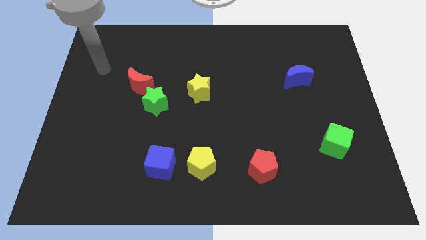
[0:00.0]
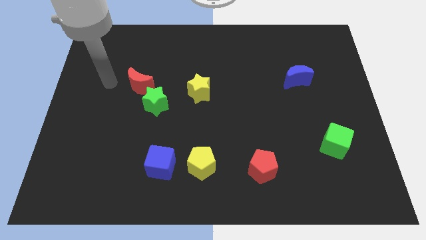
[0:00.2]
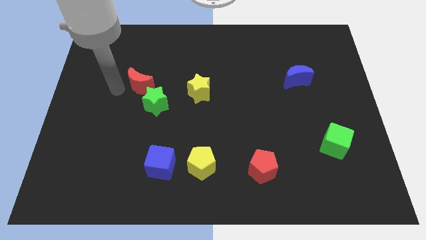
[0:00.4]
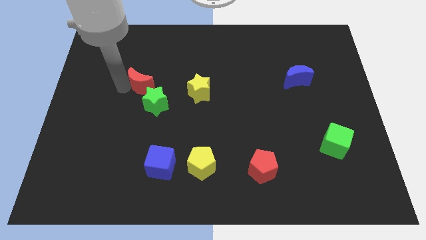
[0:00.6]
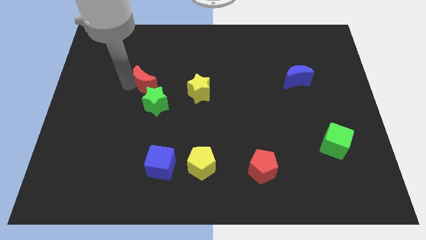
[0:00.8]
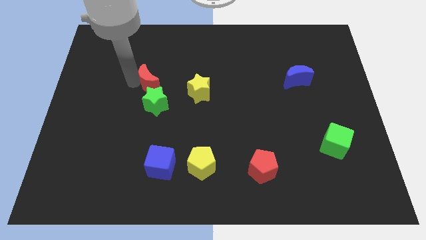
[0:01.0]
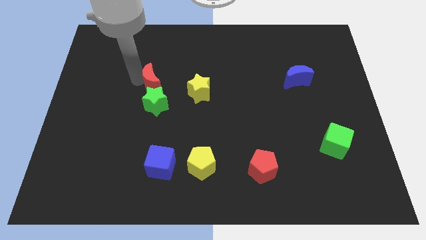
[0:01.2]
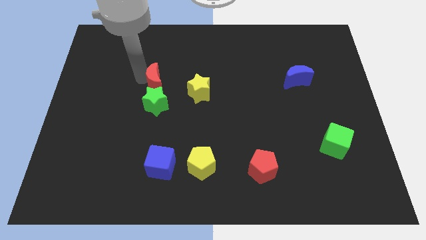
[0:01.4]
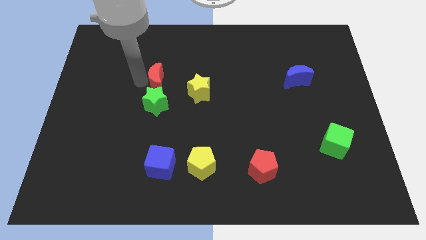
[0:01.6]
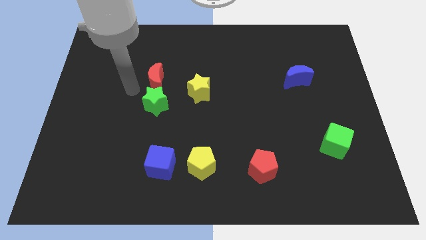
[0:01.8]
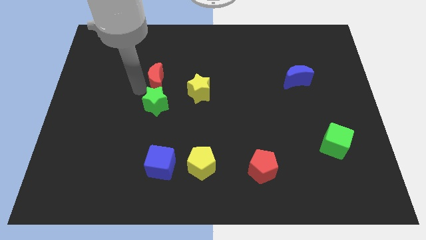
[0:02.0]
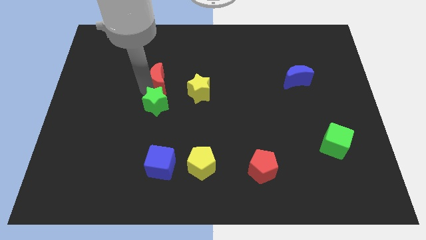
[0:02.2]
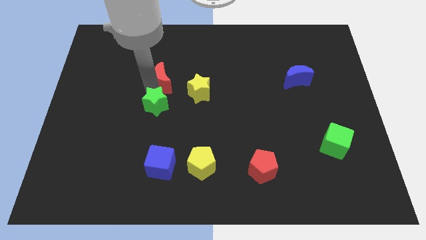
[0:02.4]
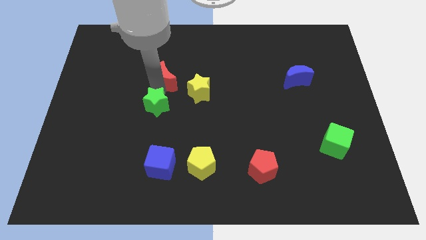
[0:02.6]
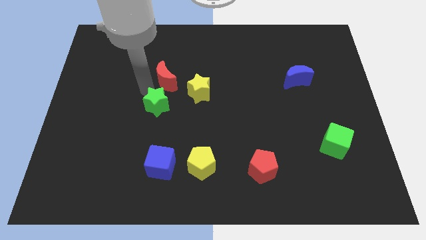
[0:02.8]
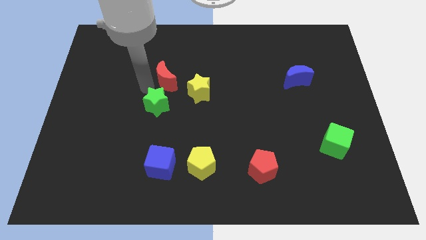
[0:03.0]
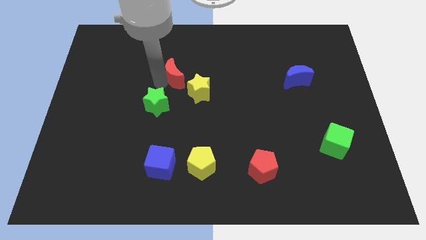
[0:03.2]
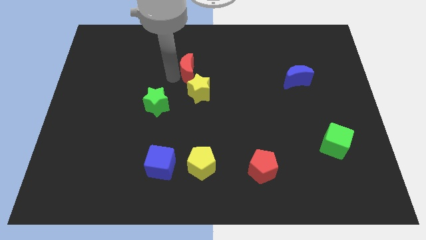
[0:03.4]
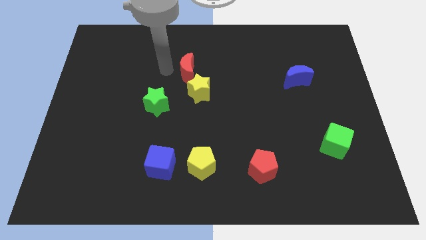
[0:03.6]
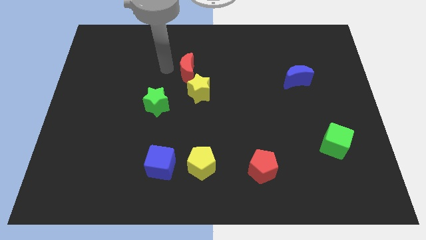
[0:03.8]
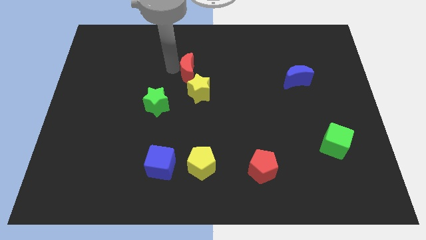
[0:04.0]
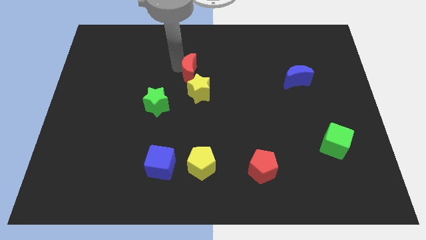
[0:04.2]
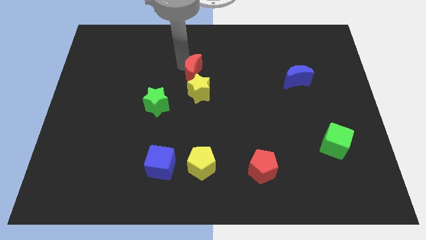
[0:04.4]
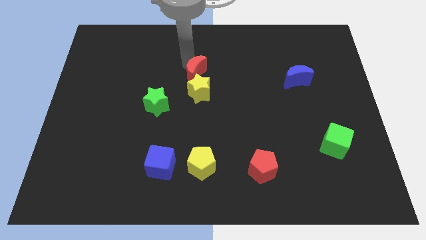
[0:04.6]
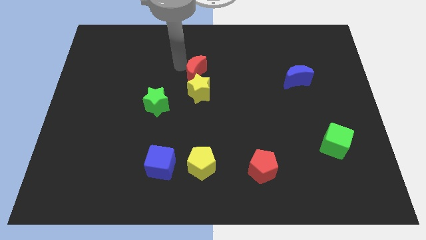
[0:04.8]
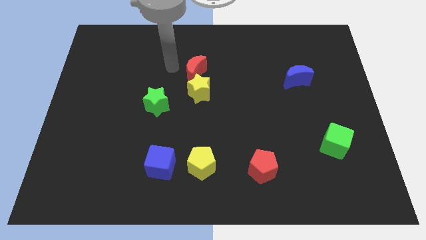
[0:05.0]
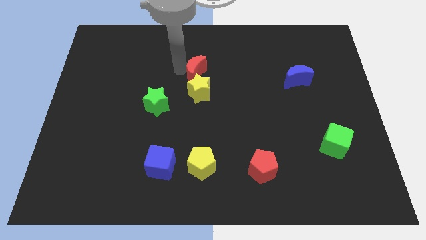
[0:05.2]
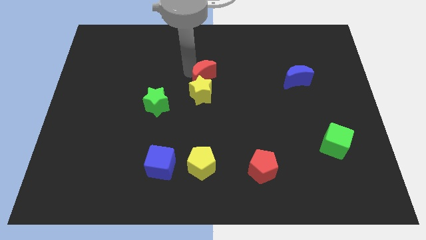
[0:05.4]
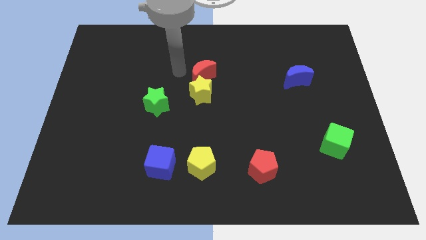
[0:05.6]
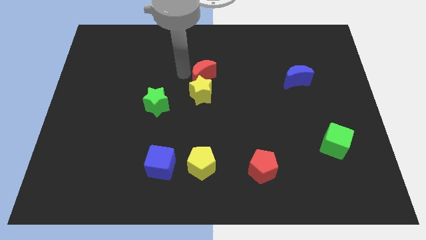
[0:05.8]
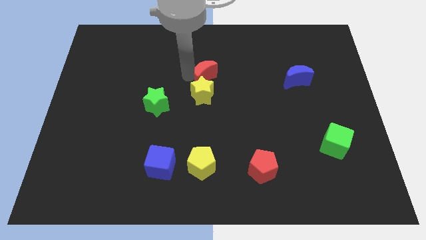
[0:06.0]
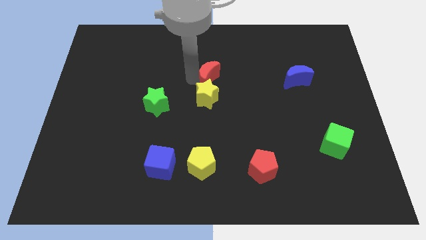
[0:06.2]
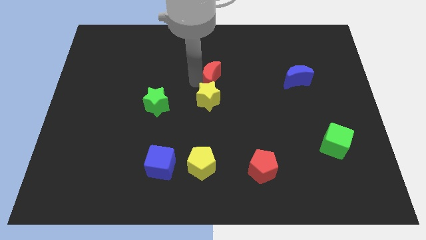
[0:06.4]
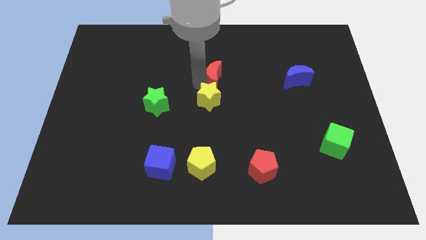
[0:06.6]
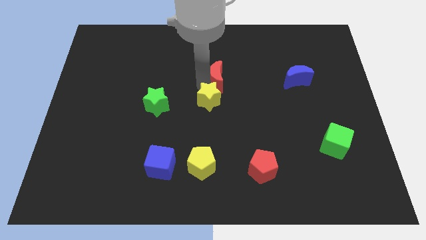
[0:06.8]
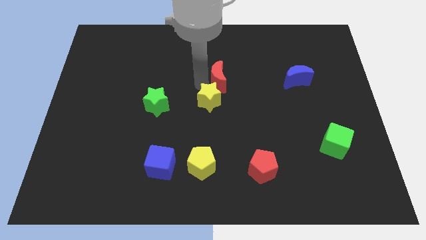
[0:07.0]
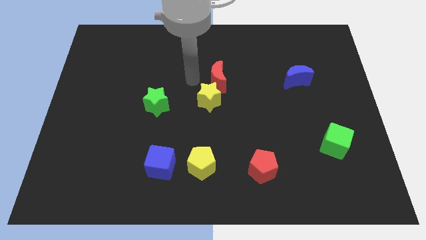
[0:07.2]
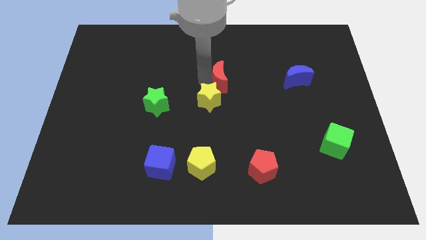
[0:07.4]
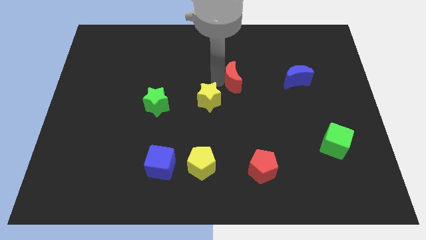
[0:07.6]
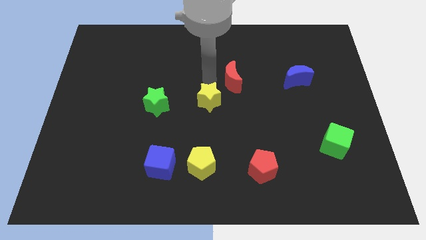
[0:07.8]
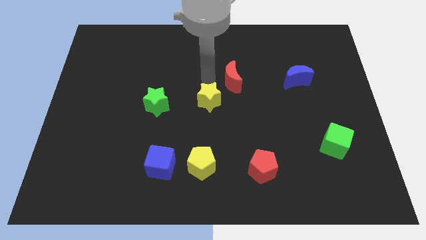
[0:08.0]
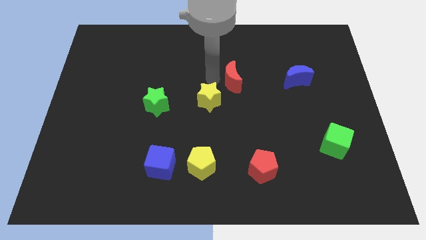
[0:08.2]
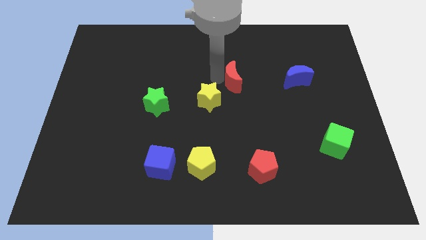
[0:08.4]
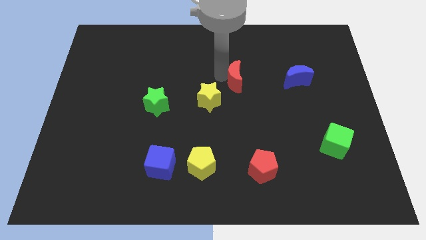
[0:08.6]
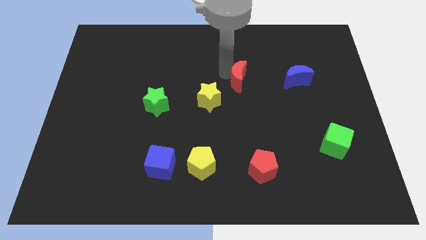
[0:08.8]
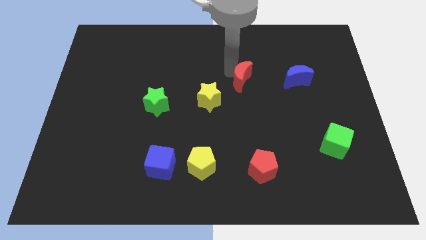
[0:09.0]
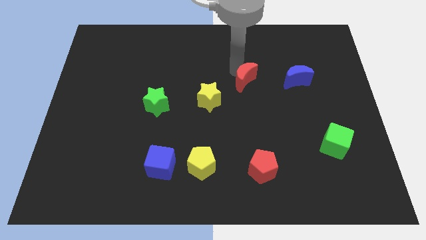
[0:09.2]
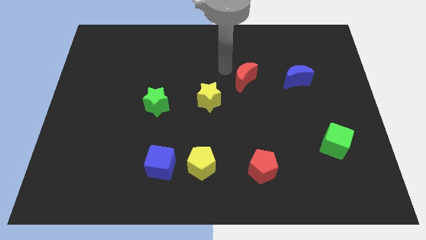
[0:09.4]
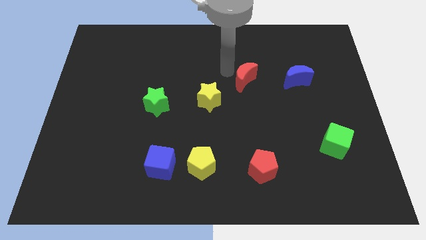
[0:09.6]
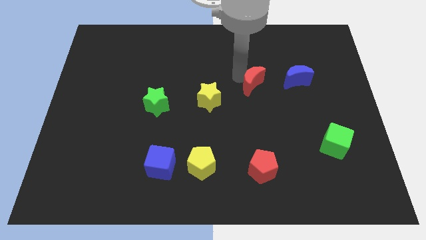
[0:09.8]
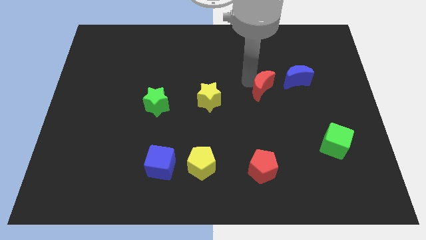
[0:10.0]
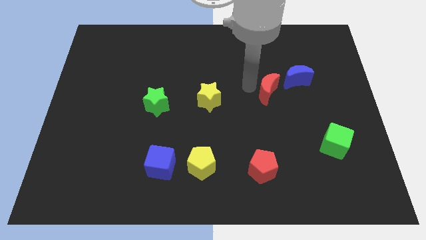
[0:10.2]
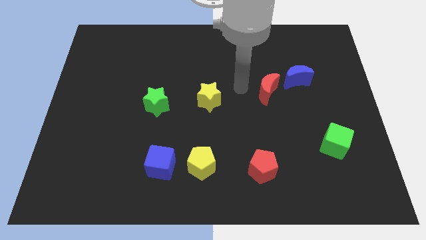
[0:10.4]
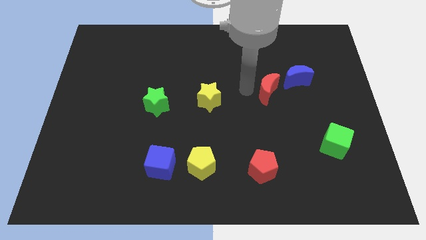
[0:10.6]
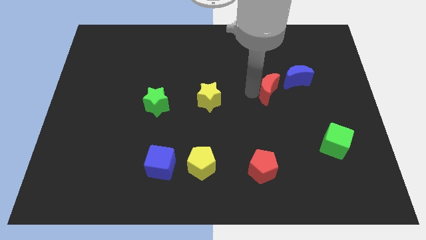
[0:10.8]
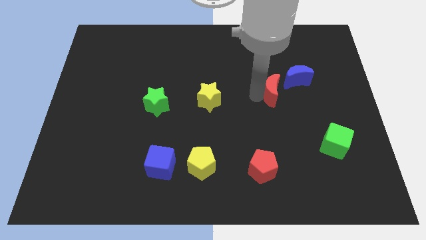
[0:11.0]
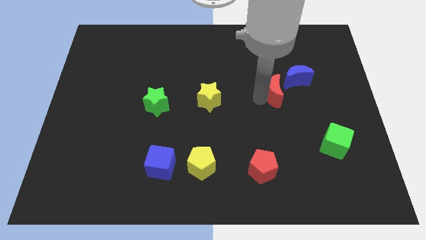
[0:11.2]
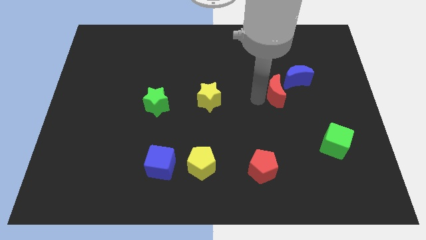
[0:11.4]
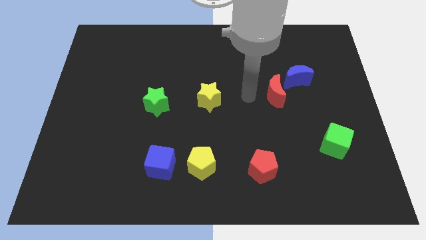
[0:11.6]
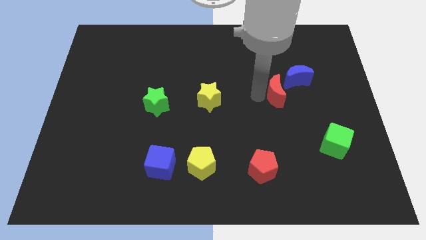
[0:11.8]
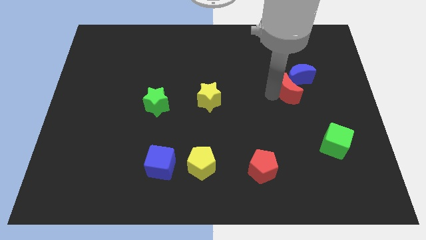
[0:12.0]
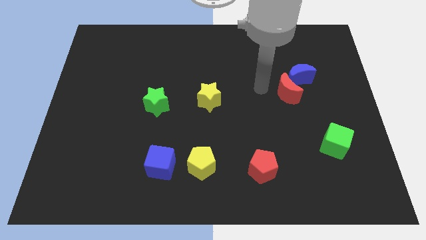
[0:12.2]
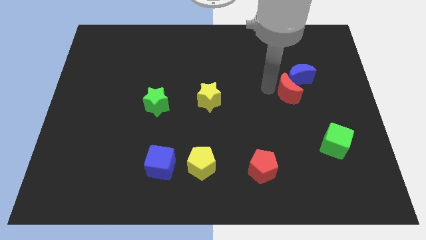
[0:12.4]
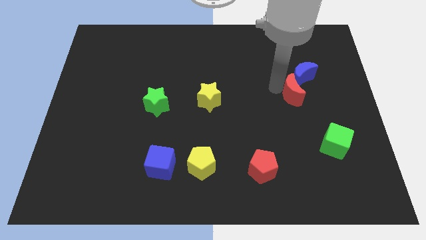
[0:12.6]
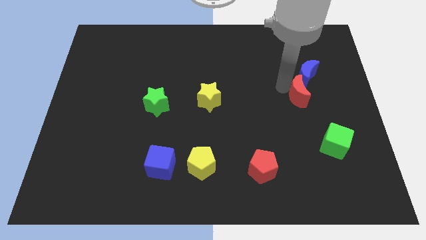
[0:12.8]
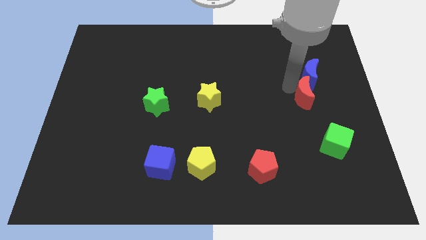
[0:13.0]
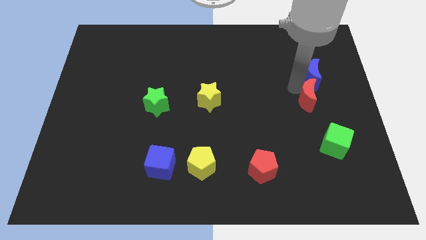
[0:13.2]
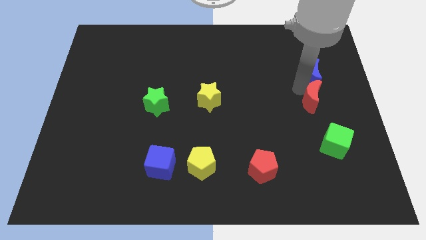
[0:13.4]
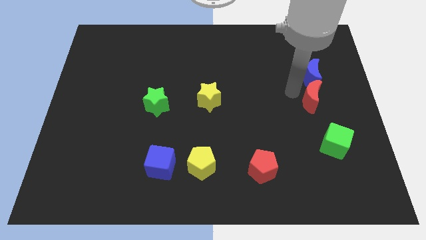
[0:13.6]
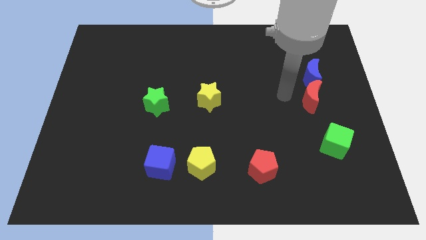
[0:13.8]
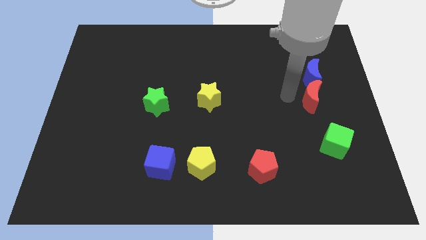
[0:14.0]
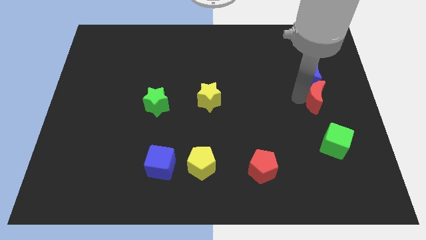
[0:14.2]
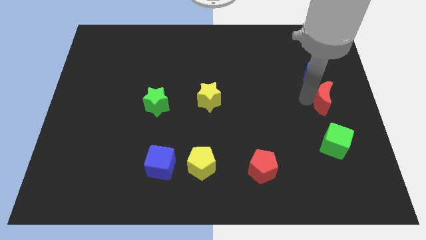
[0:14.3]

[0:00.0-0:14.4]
put the red moon to the center right
